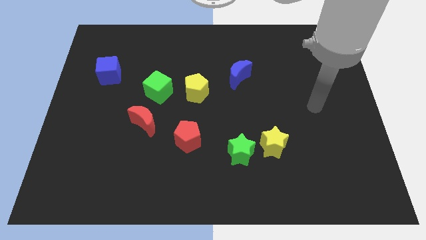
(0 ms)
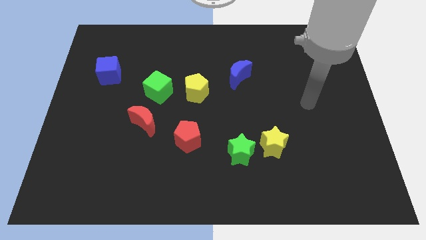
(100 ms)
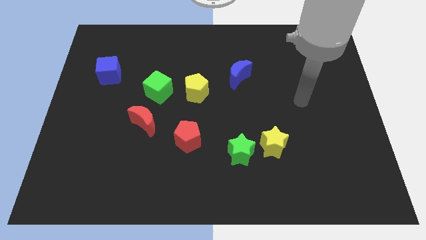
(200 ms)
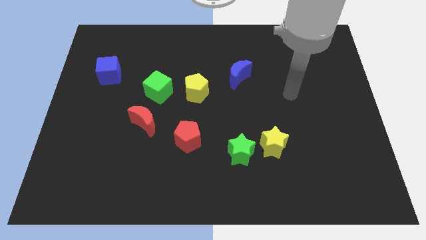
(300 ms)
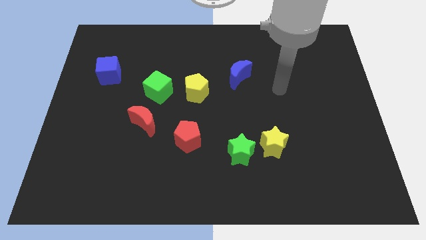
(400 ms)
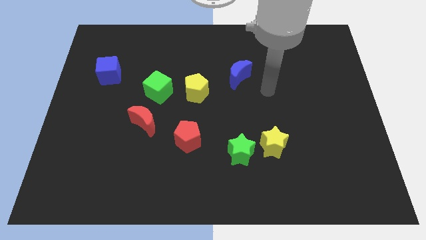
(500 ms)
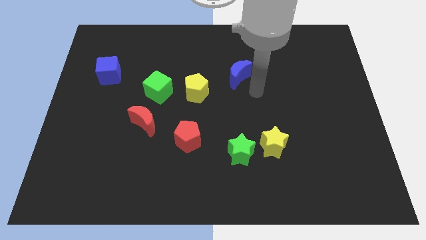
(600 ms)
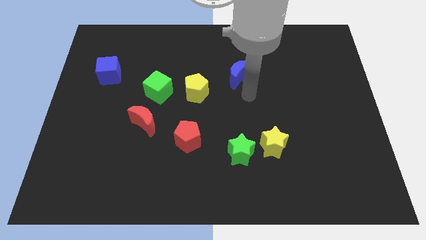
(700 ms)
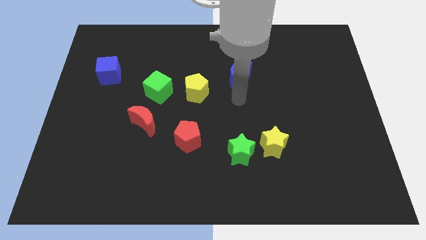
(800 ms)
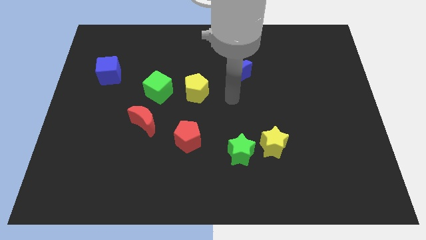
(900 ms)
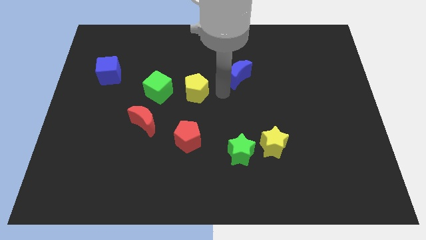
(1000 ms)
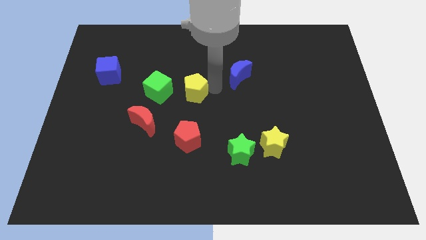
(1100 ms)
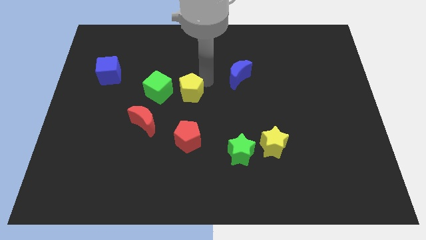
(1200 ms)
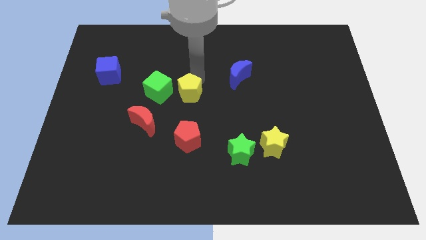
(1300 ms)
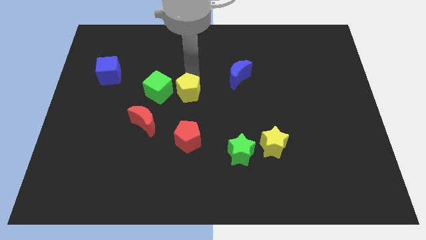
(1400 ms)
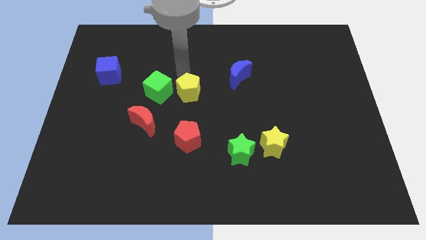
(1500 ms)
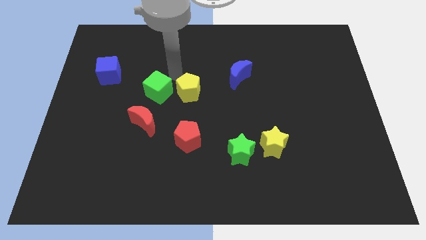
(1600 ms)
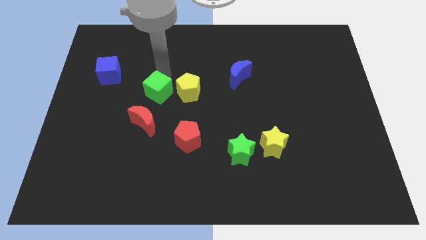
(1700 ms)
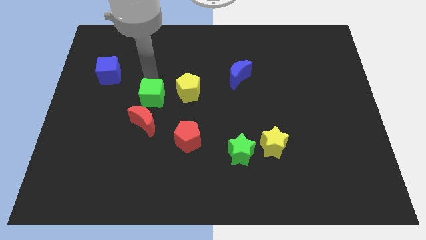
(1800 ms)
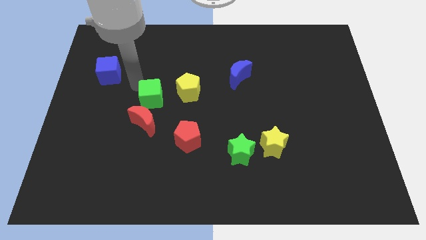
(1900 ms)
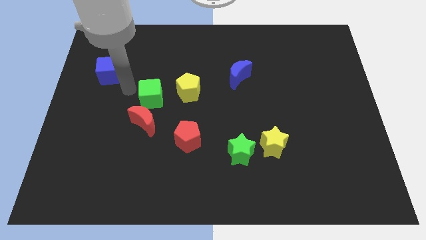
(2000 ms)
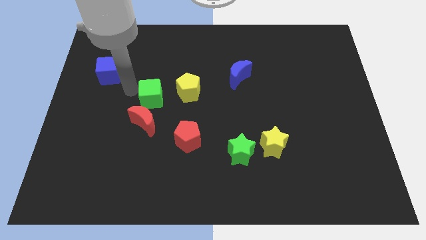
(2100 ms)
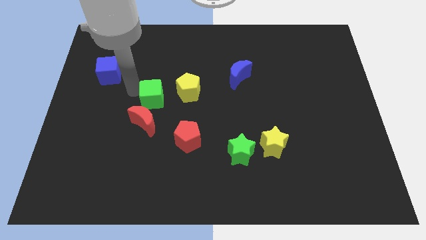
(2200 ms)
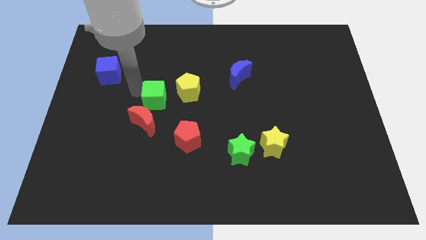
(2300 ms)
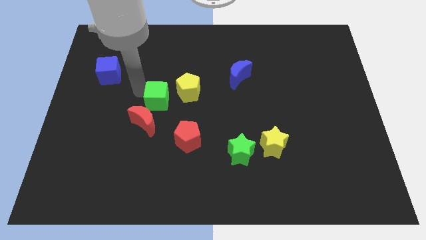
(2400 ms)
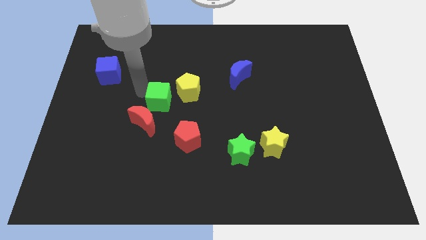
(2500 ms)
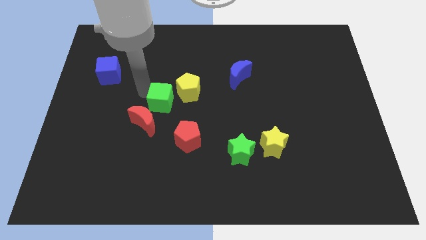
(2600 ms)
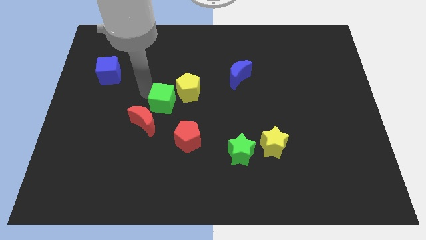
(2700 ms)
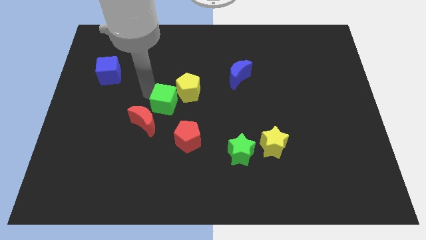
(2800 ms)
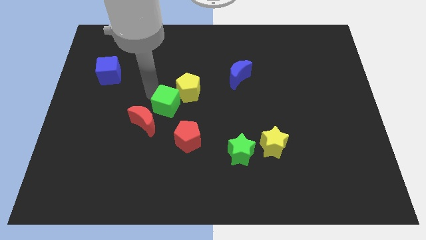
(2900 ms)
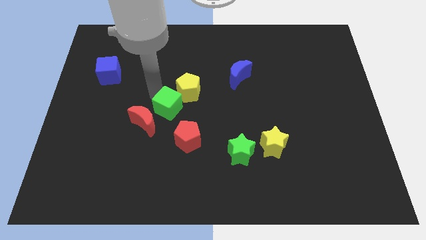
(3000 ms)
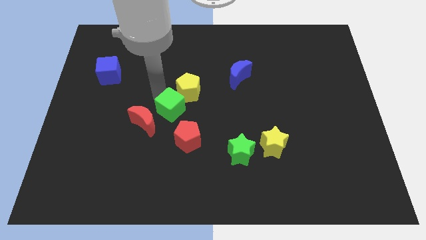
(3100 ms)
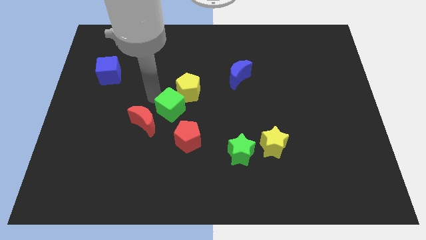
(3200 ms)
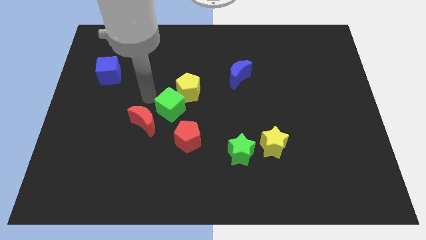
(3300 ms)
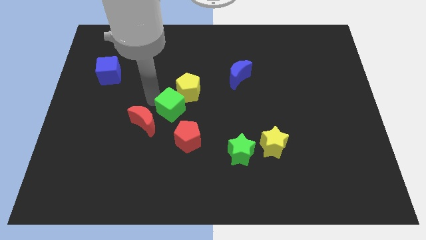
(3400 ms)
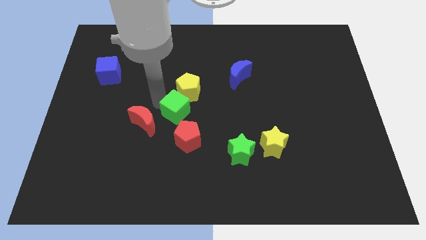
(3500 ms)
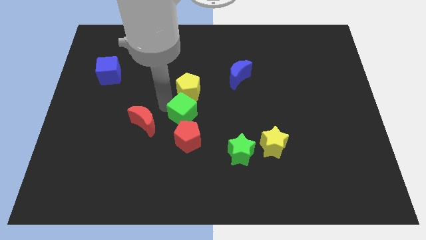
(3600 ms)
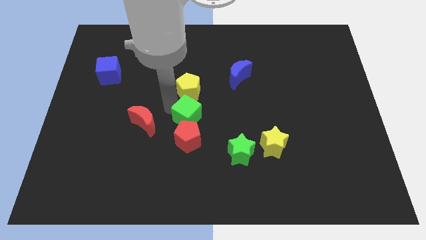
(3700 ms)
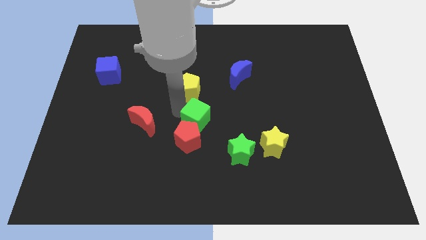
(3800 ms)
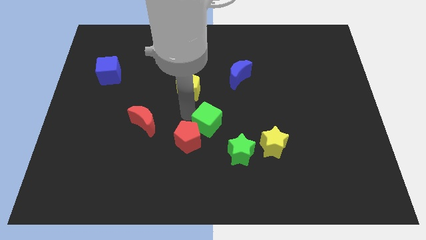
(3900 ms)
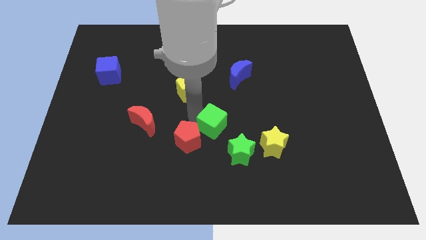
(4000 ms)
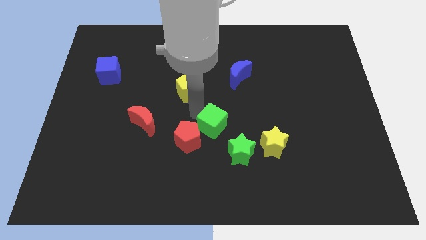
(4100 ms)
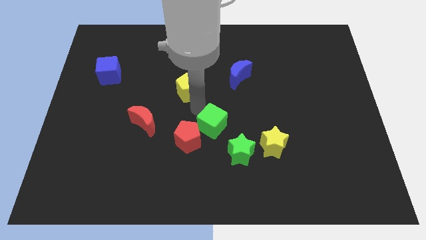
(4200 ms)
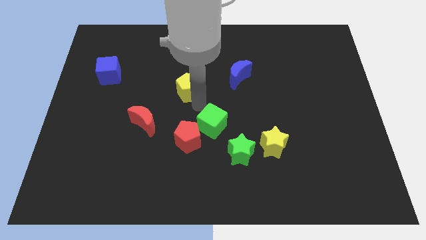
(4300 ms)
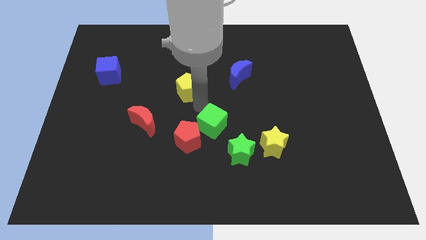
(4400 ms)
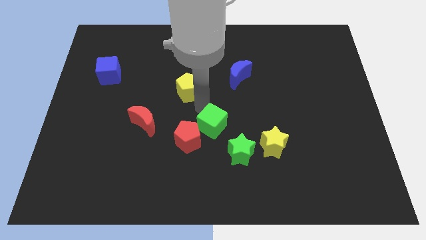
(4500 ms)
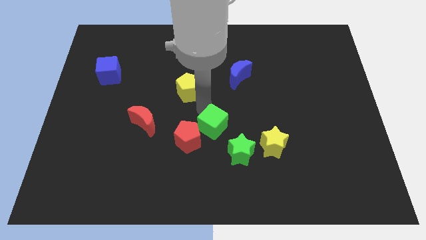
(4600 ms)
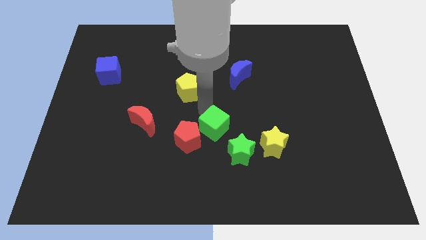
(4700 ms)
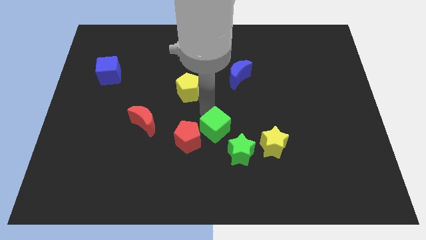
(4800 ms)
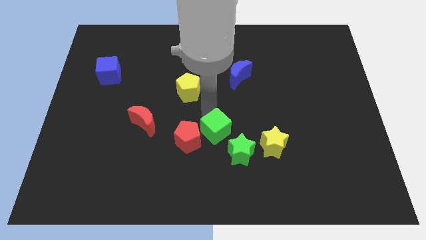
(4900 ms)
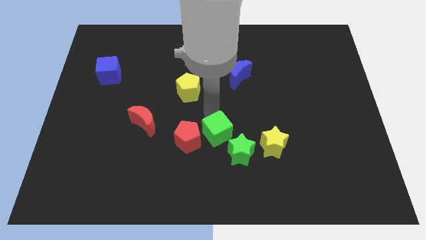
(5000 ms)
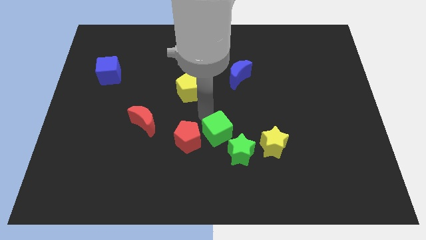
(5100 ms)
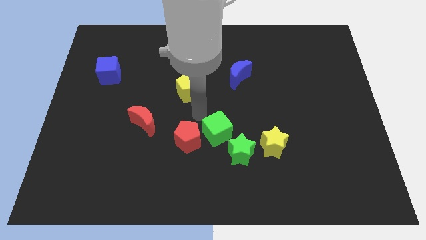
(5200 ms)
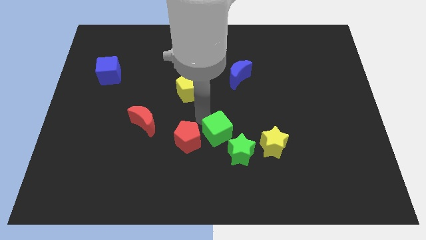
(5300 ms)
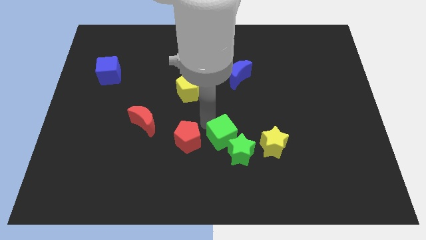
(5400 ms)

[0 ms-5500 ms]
push the green cube towards the green star

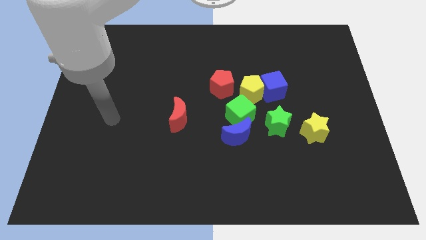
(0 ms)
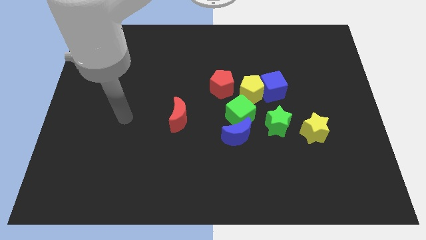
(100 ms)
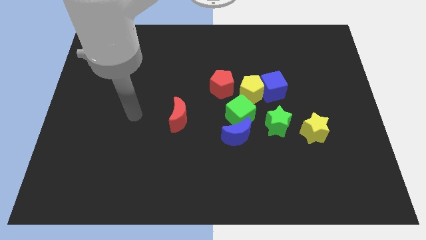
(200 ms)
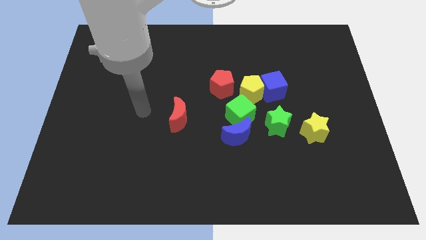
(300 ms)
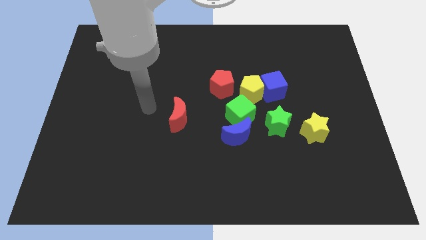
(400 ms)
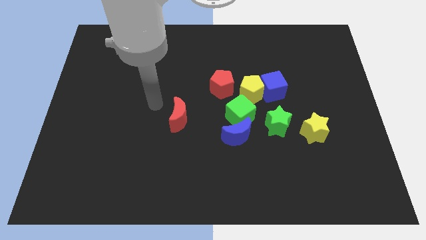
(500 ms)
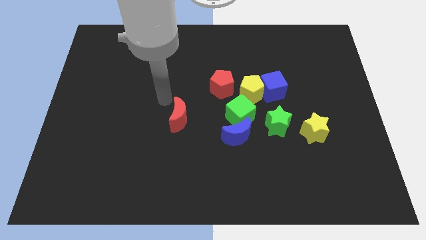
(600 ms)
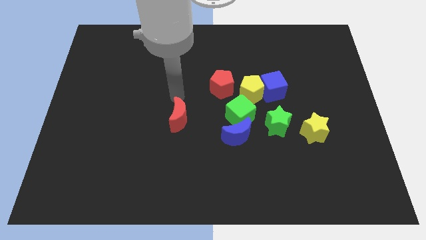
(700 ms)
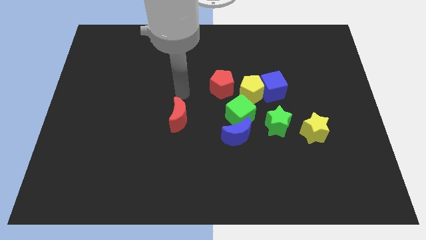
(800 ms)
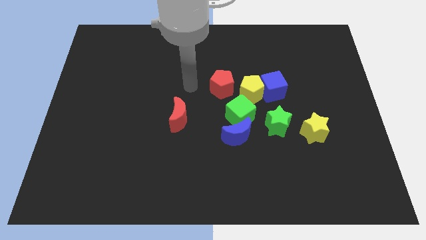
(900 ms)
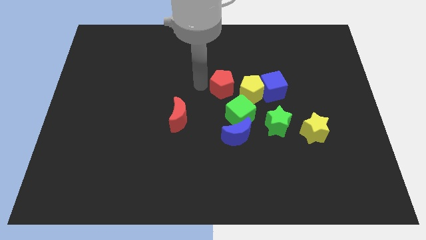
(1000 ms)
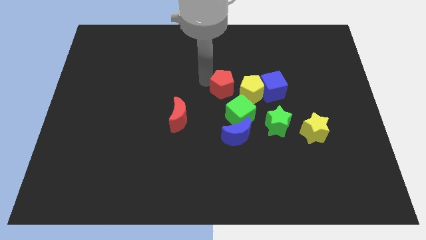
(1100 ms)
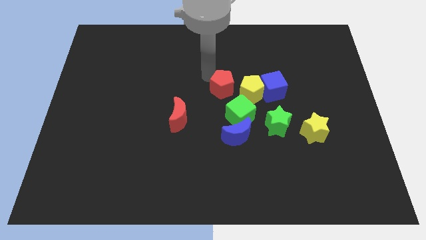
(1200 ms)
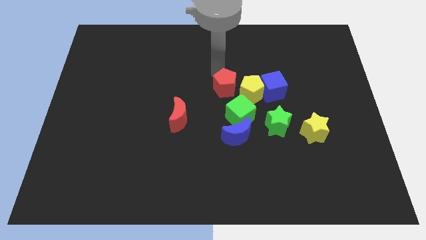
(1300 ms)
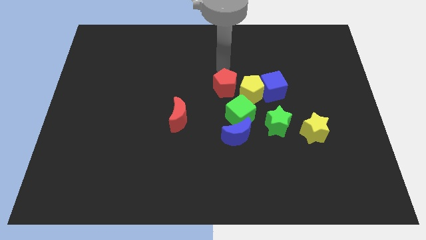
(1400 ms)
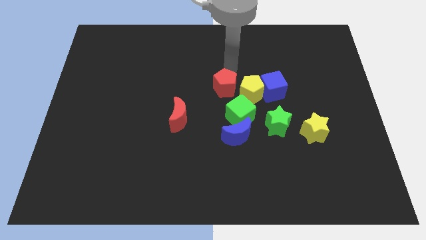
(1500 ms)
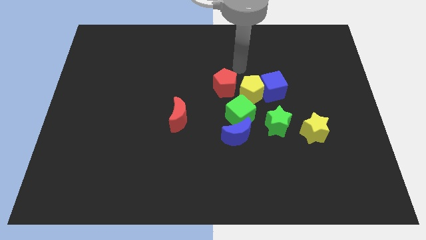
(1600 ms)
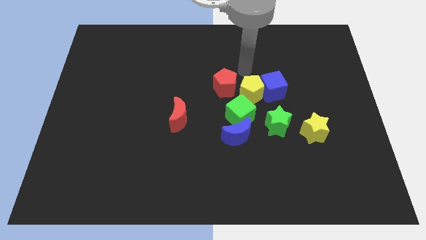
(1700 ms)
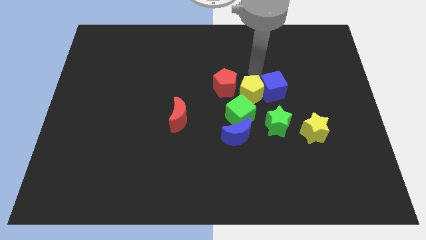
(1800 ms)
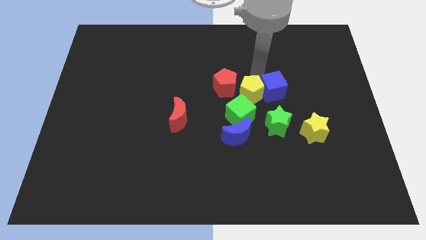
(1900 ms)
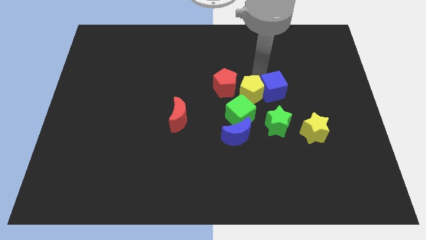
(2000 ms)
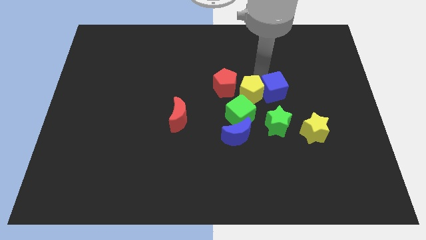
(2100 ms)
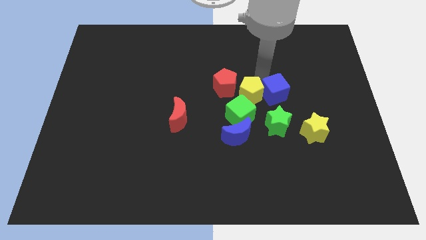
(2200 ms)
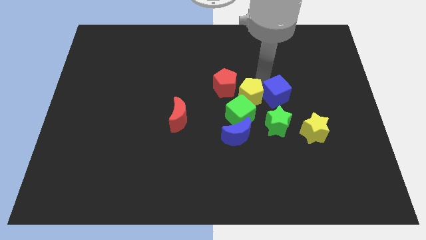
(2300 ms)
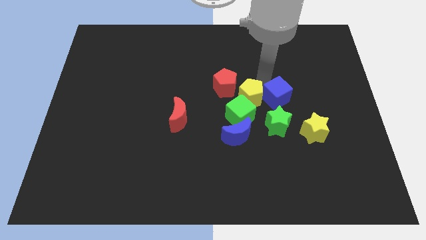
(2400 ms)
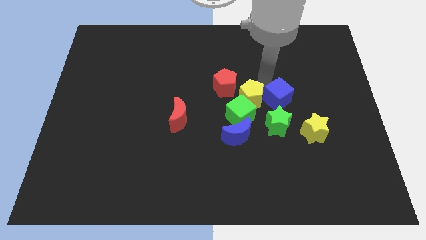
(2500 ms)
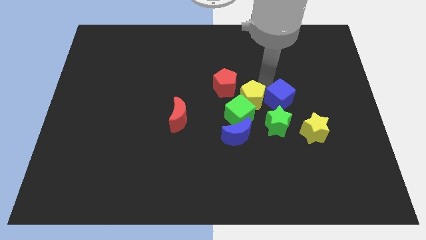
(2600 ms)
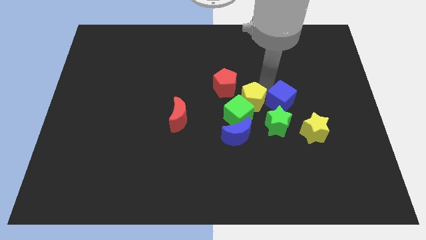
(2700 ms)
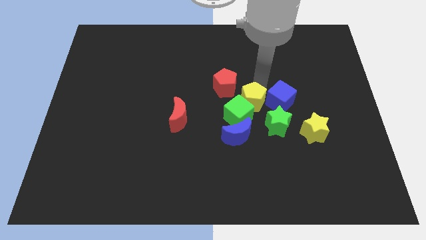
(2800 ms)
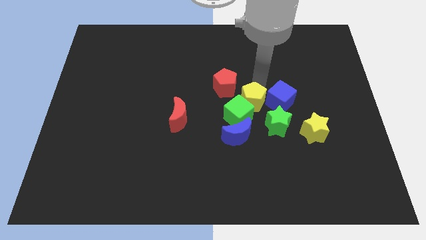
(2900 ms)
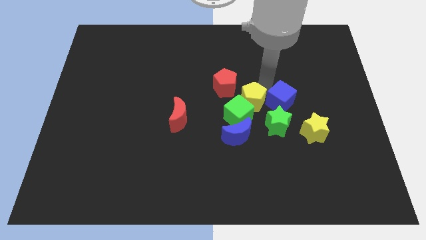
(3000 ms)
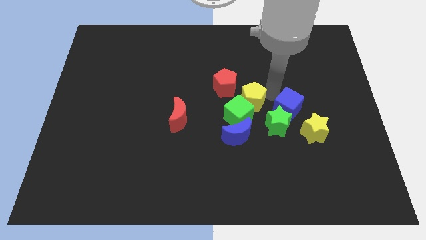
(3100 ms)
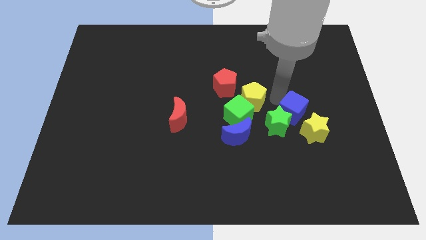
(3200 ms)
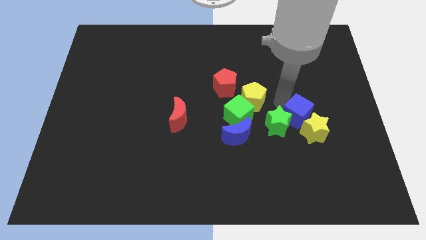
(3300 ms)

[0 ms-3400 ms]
put the blue cube next to the yellow star
